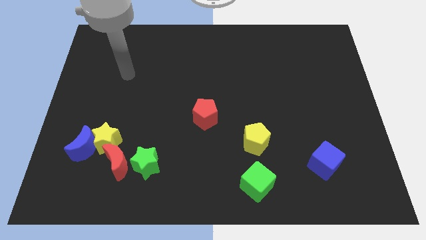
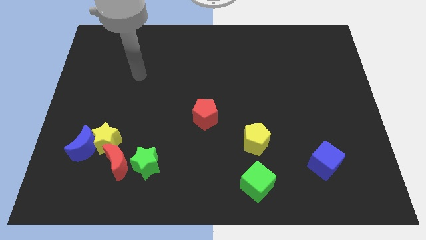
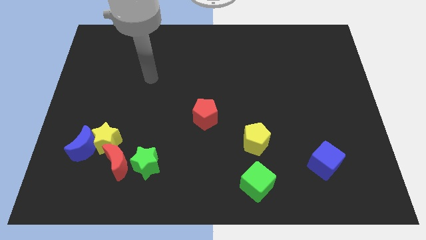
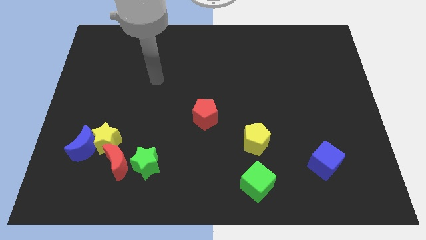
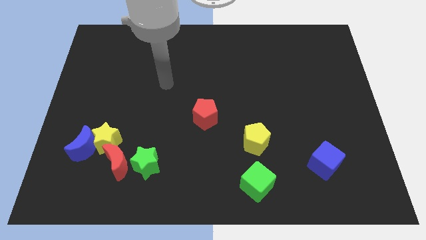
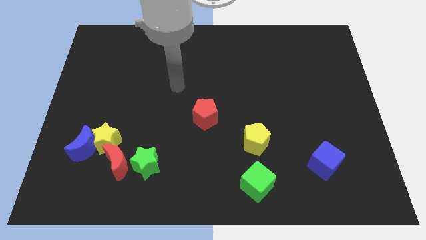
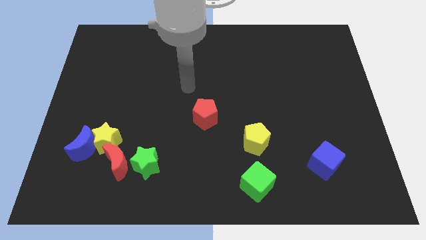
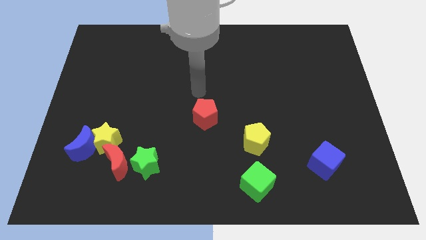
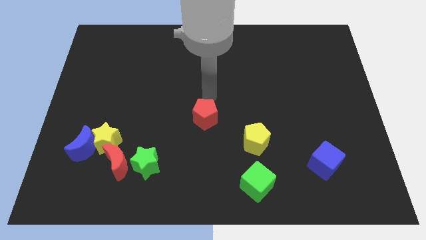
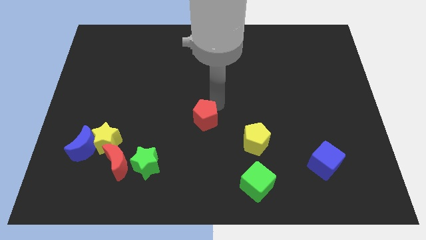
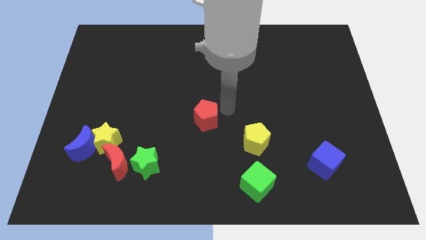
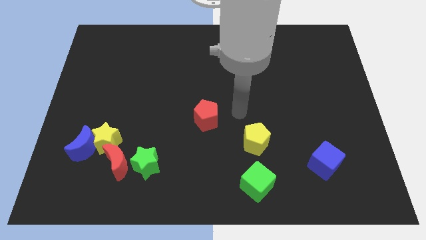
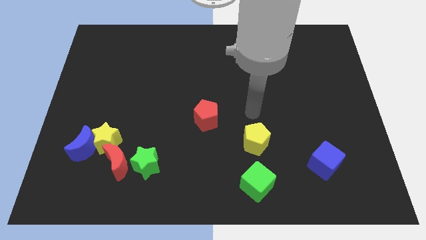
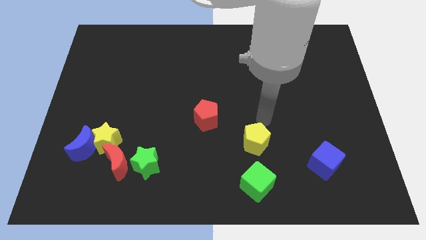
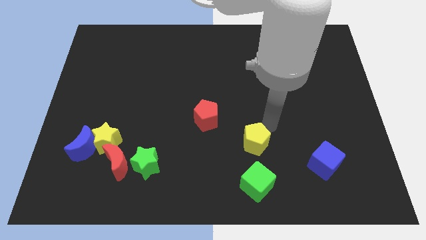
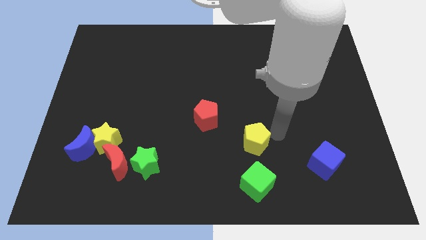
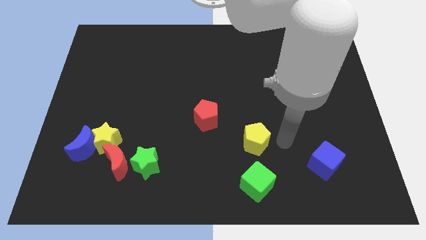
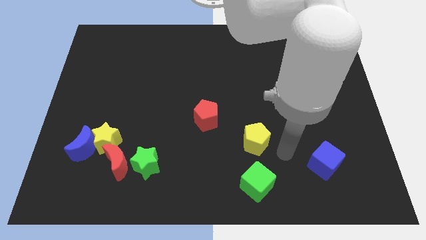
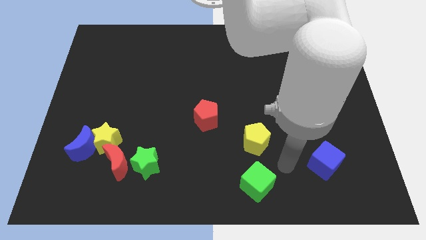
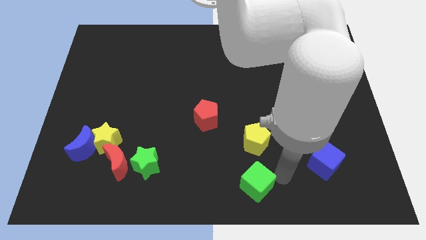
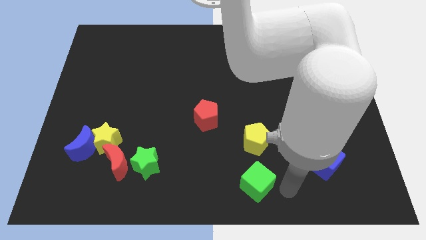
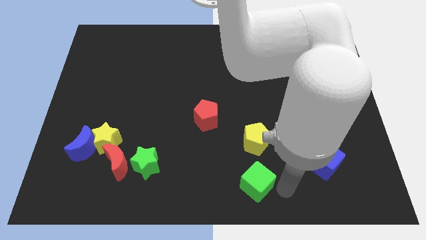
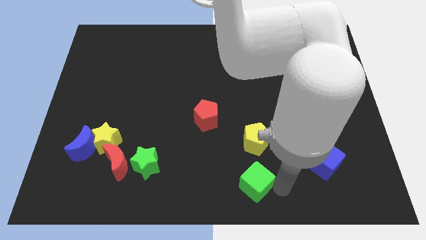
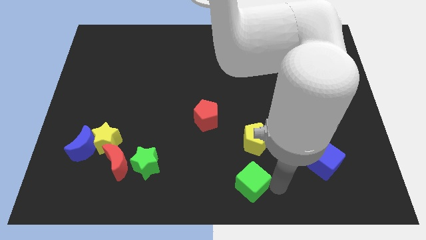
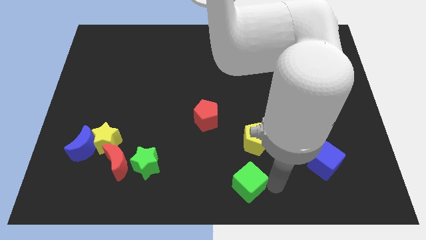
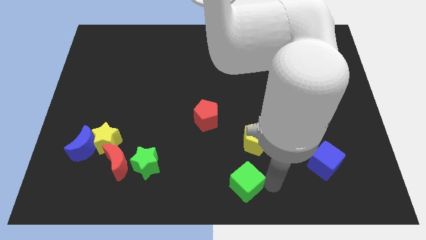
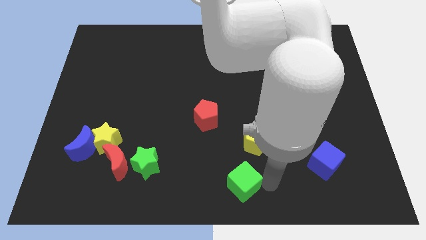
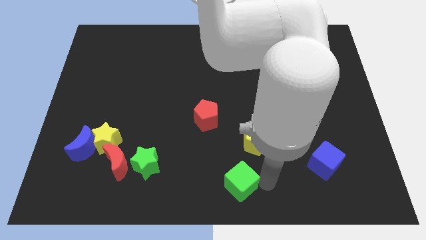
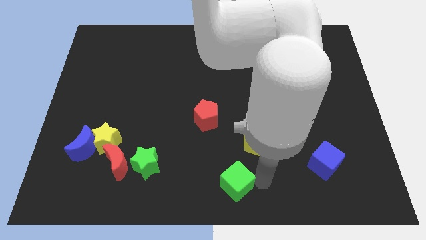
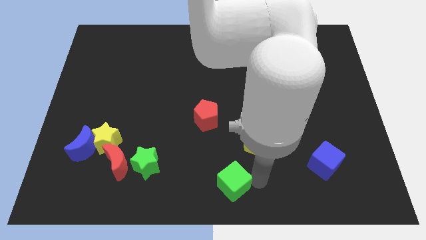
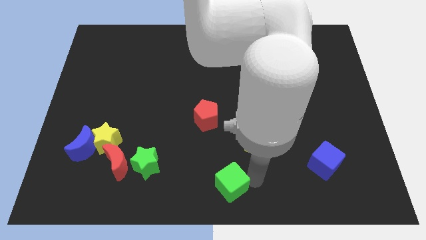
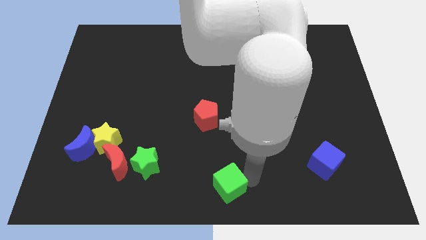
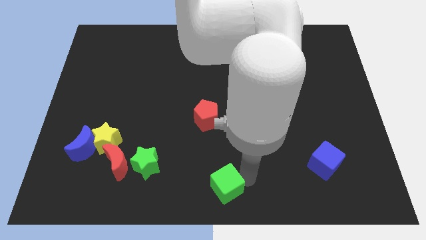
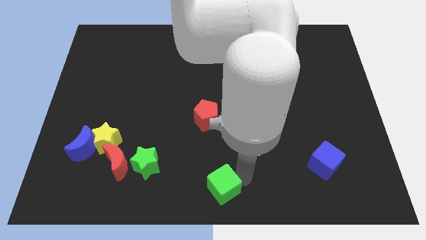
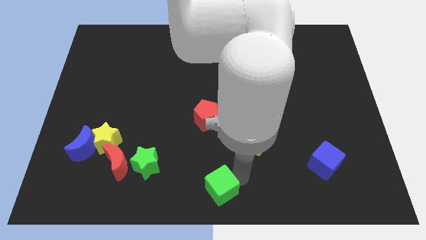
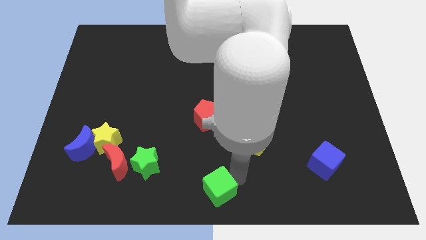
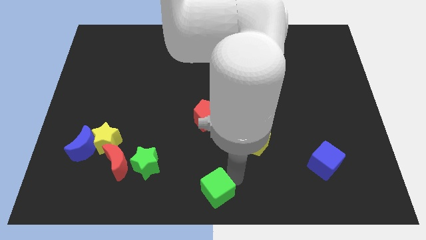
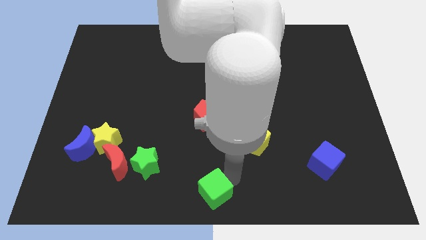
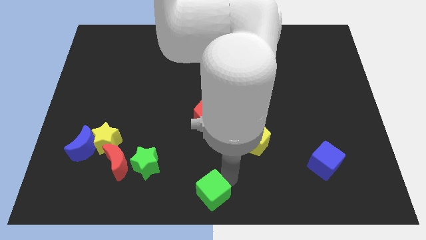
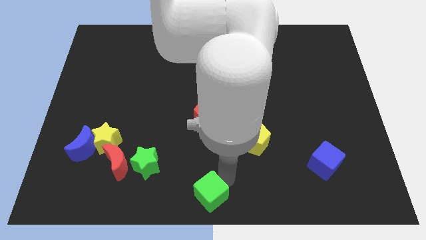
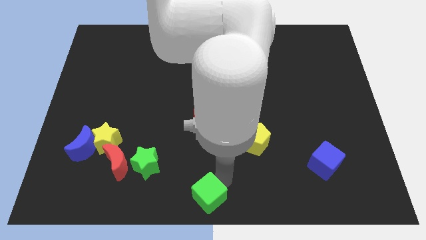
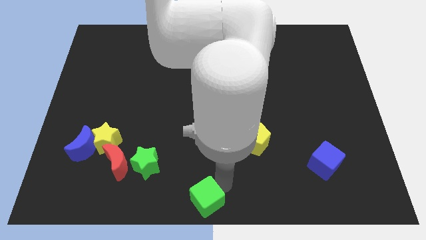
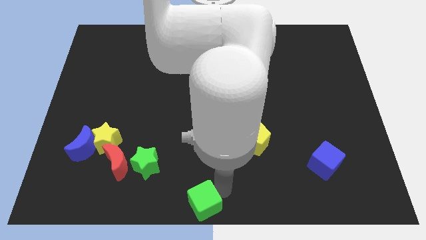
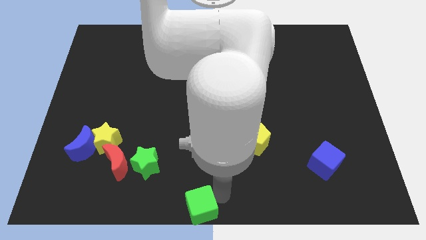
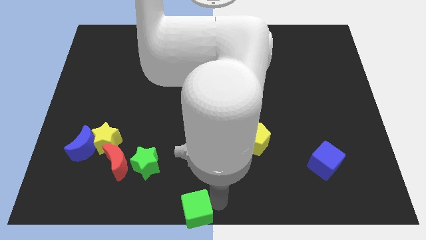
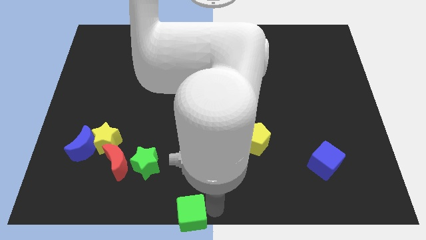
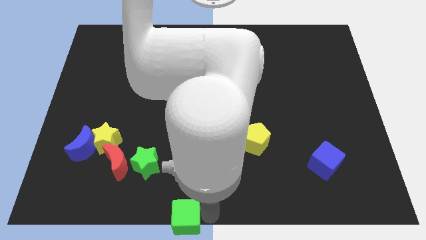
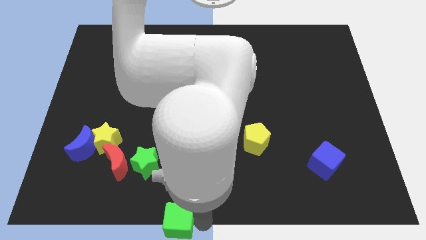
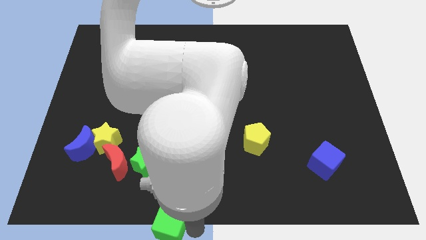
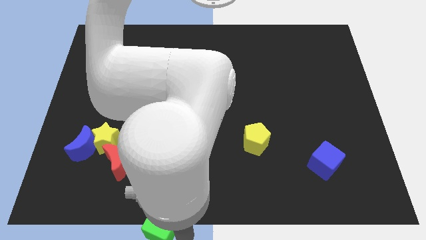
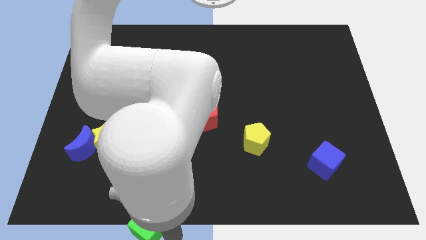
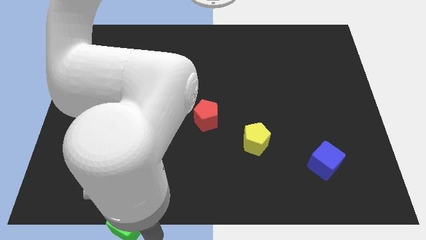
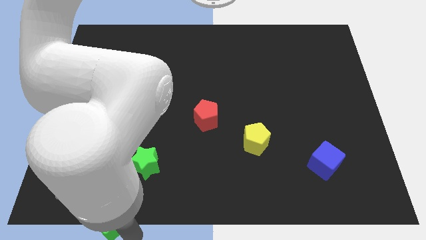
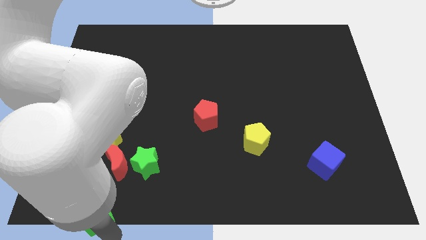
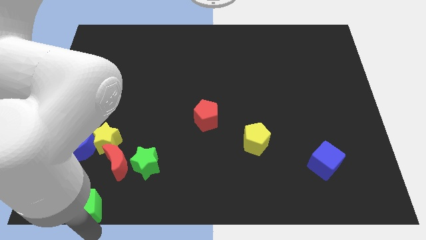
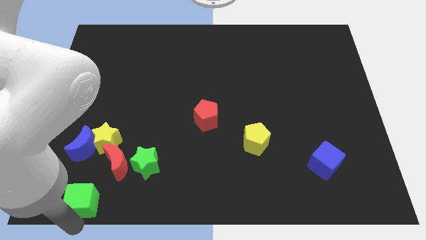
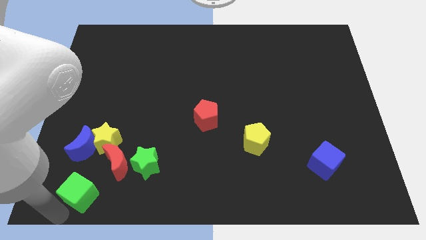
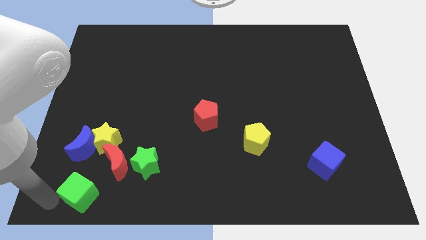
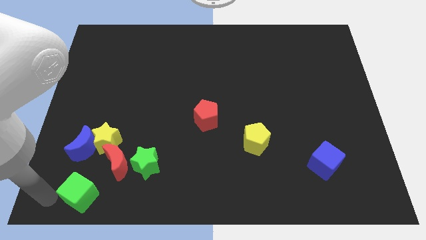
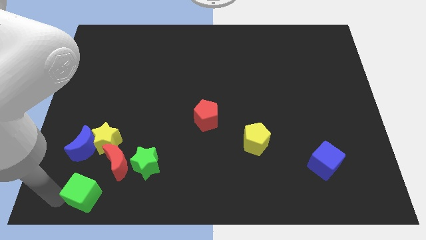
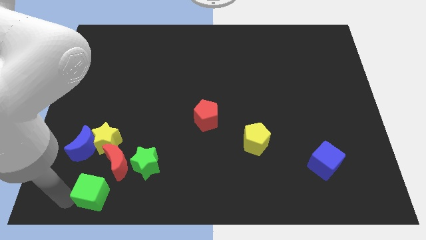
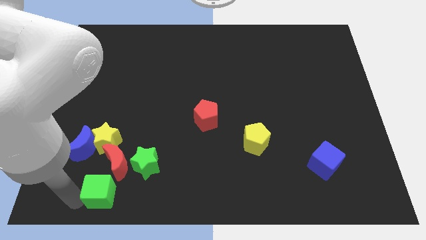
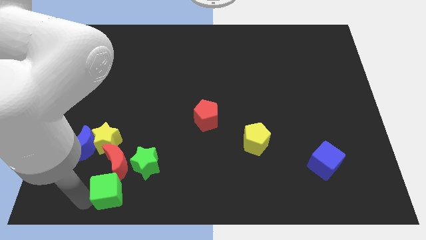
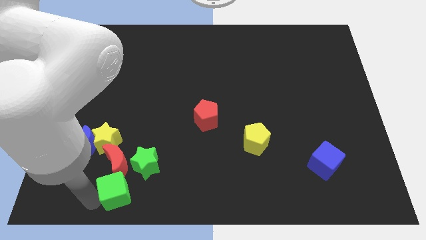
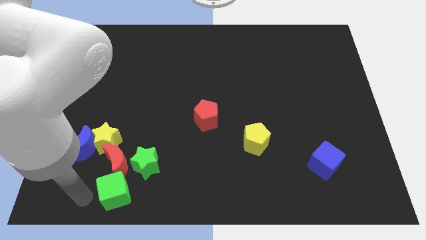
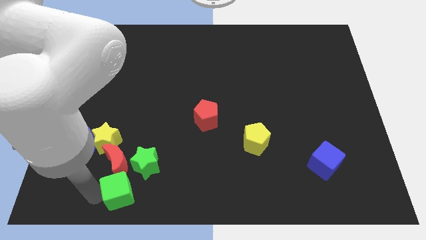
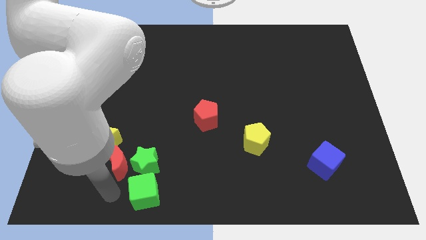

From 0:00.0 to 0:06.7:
slide the green cube next to the green star

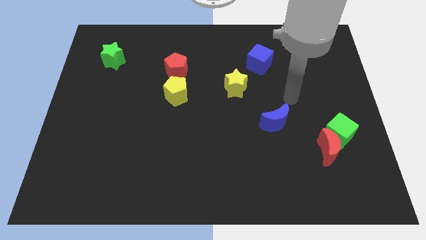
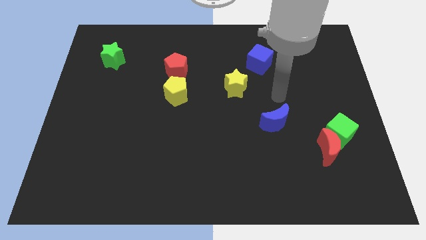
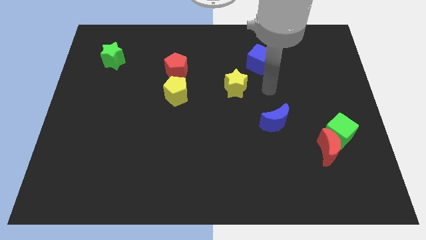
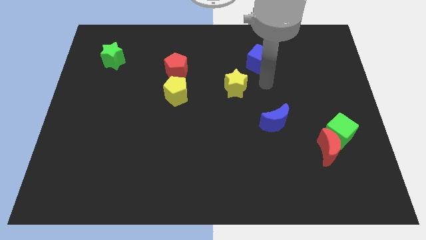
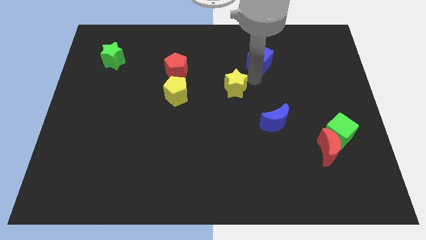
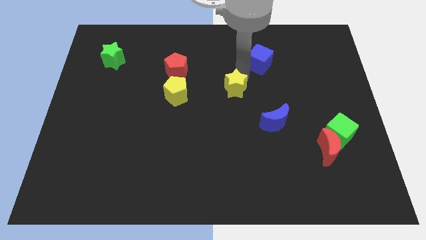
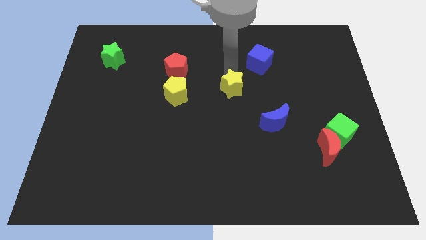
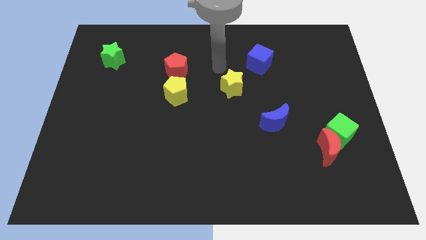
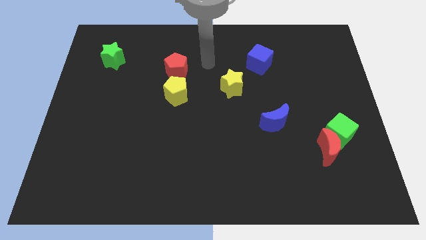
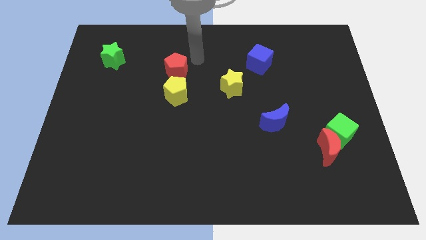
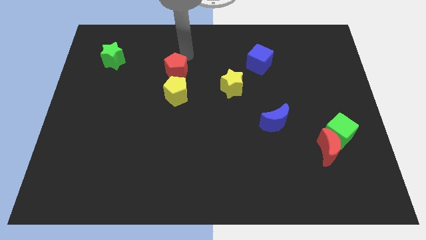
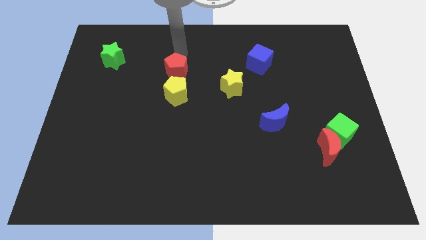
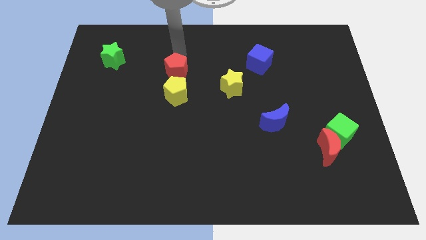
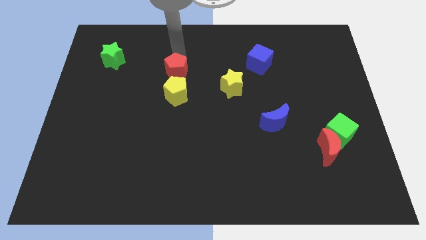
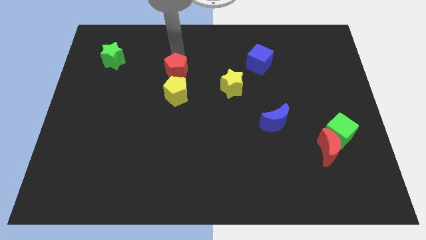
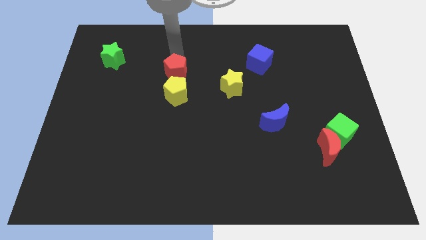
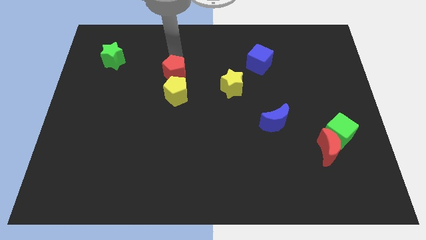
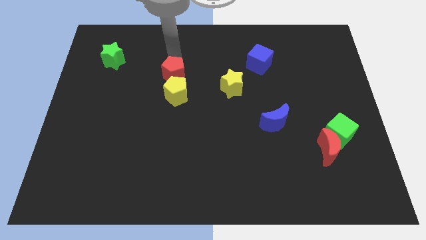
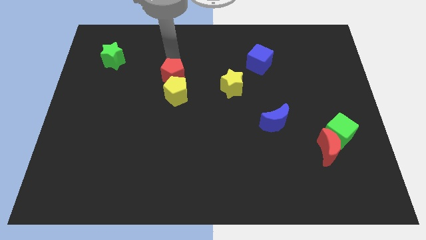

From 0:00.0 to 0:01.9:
slide the red pentagon close to the yellow pentagon
